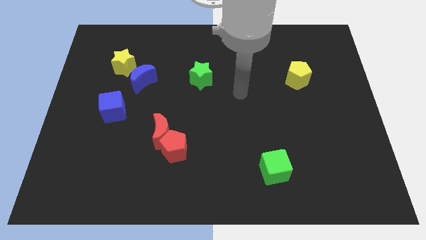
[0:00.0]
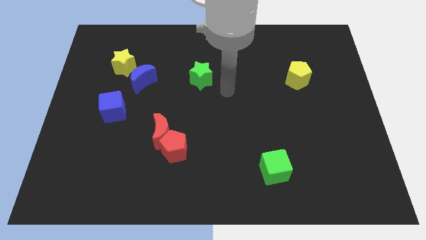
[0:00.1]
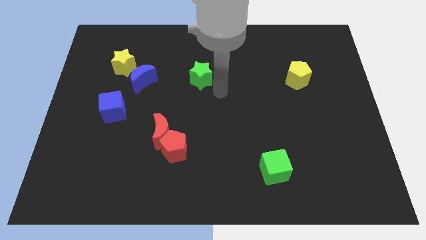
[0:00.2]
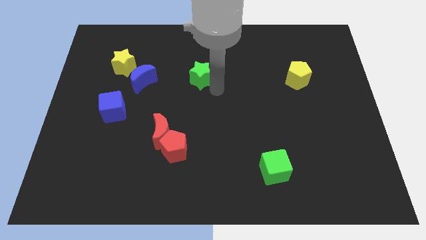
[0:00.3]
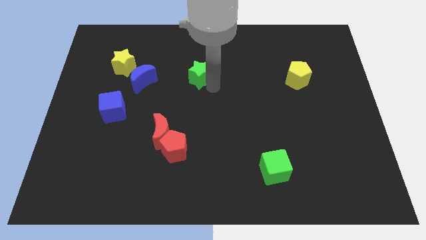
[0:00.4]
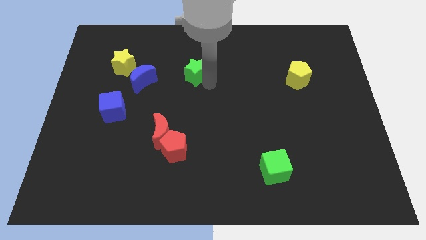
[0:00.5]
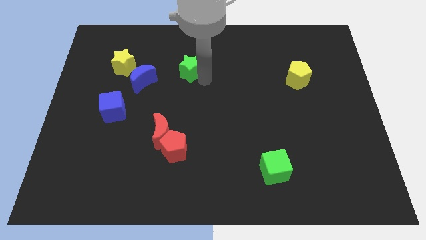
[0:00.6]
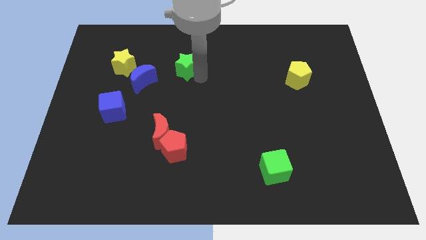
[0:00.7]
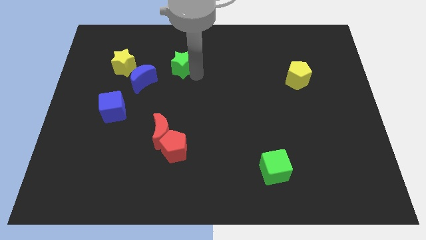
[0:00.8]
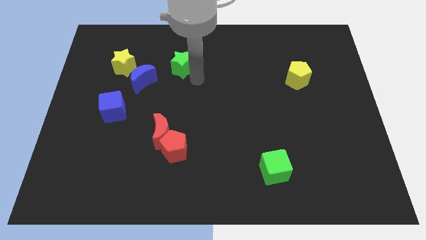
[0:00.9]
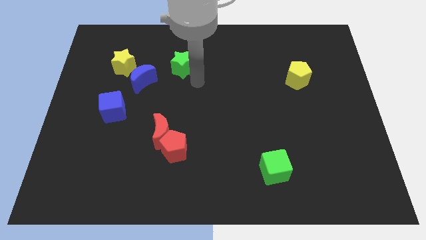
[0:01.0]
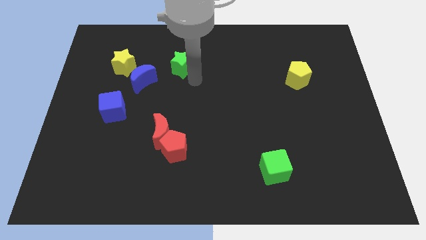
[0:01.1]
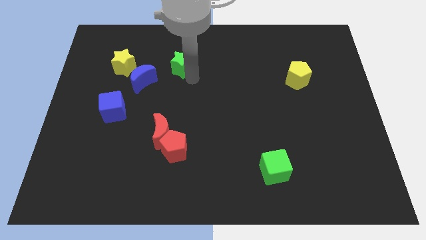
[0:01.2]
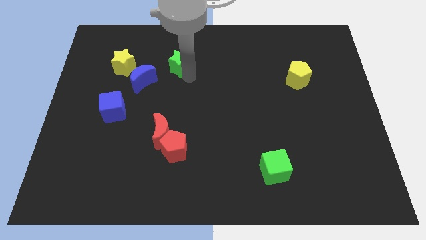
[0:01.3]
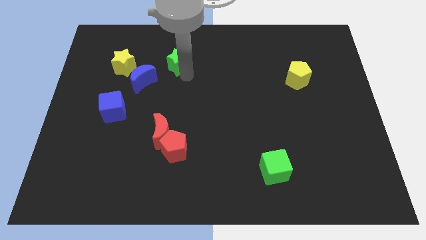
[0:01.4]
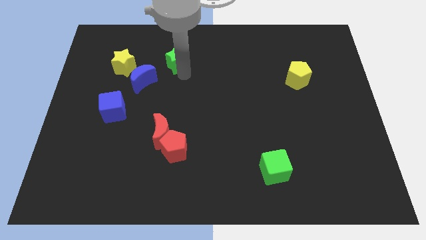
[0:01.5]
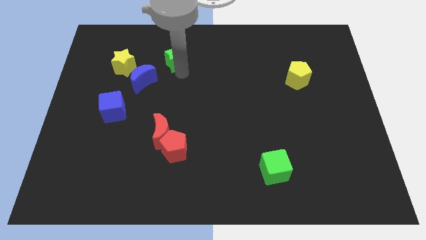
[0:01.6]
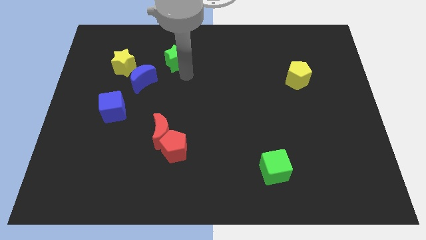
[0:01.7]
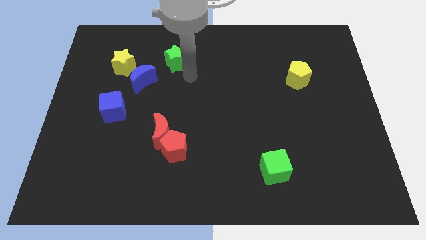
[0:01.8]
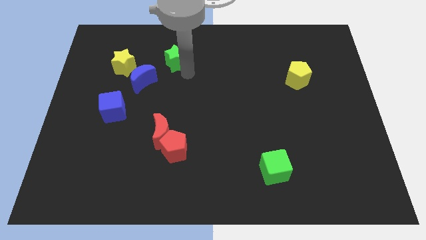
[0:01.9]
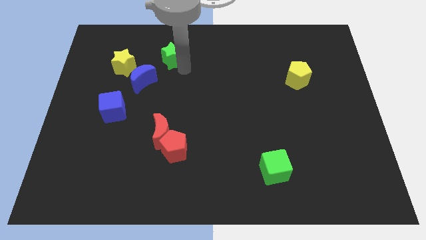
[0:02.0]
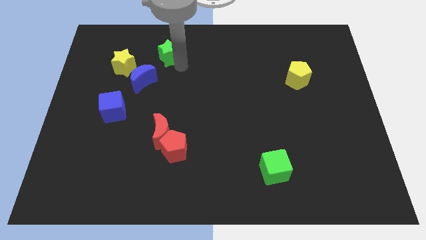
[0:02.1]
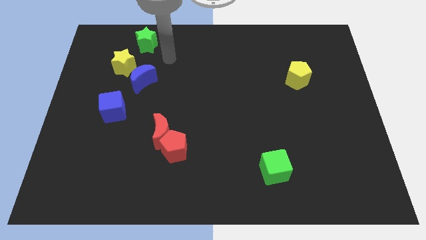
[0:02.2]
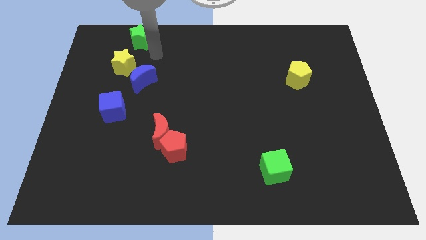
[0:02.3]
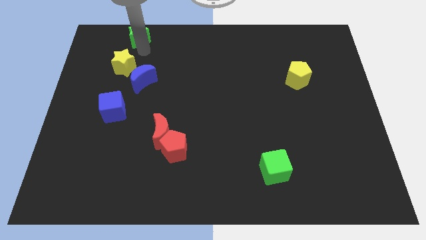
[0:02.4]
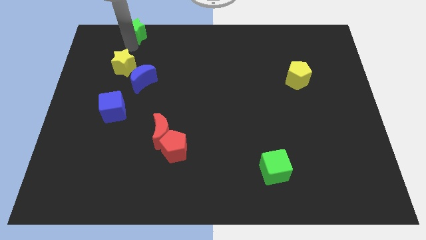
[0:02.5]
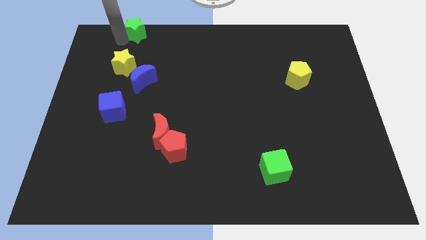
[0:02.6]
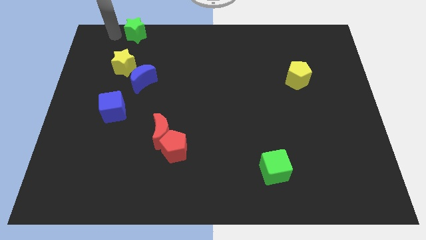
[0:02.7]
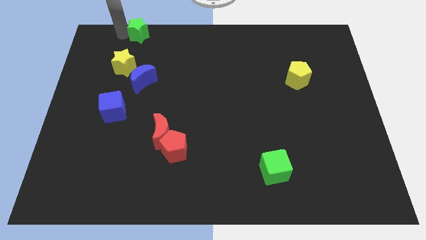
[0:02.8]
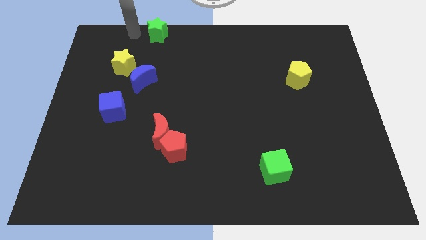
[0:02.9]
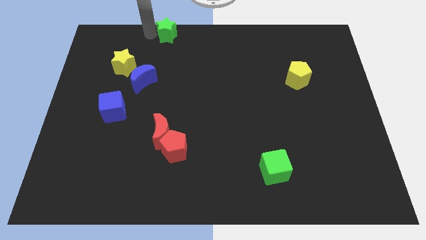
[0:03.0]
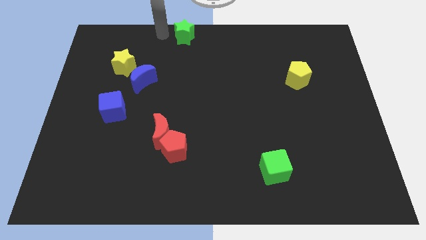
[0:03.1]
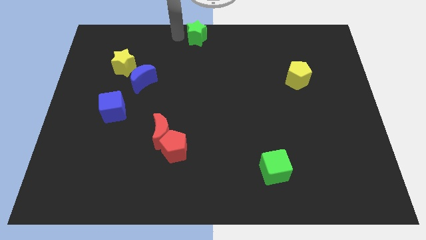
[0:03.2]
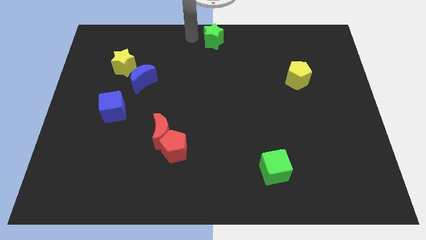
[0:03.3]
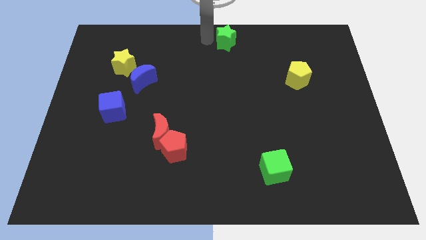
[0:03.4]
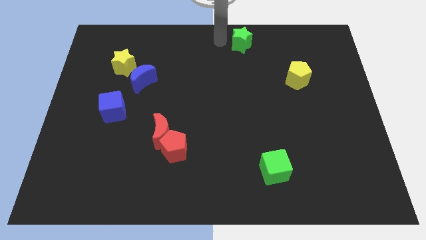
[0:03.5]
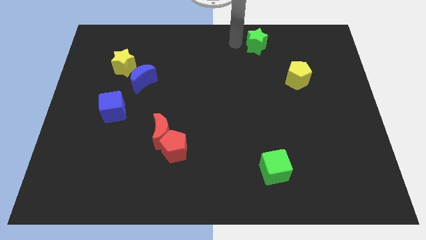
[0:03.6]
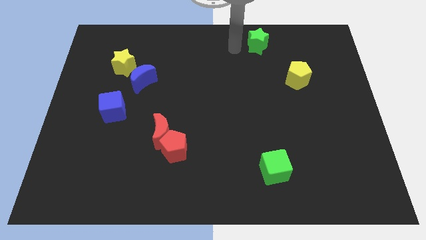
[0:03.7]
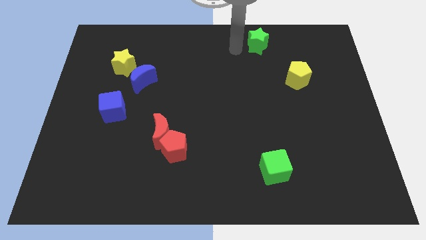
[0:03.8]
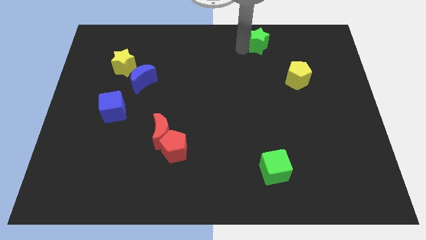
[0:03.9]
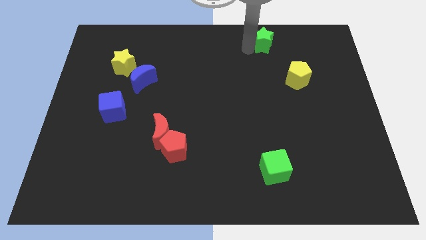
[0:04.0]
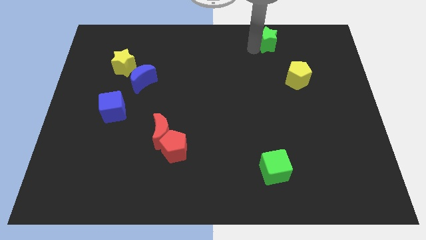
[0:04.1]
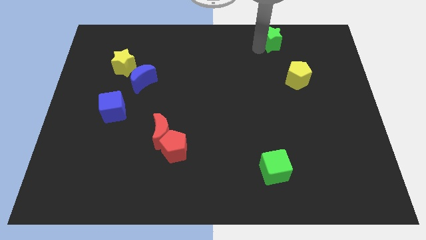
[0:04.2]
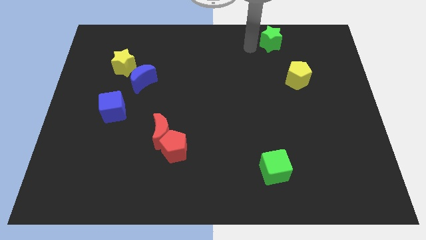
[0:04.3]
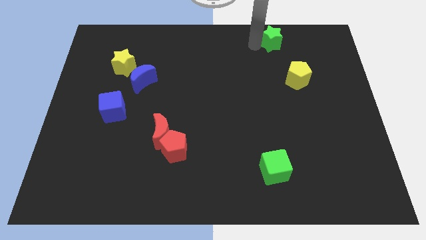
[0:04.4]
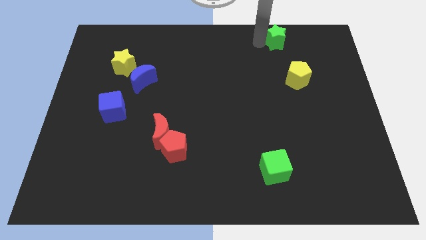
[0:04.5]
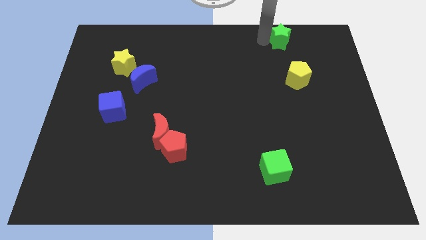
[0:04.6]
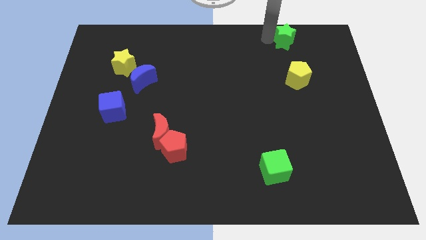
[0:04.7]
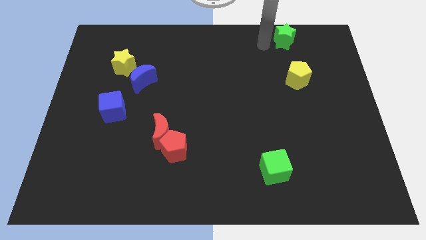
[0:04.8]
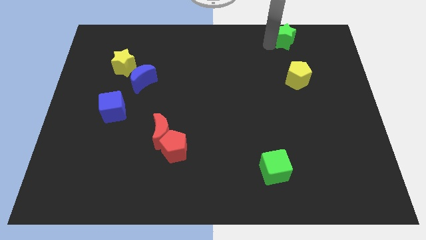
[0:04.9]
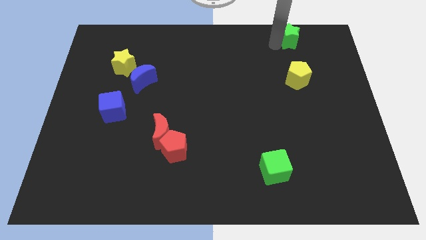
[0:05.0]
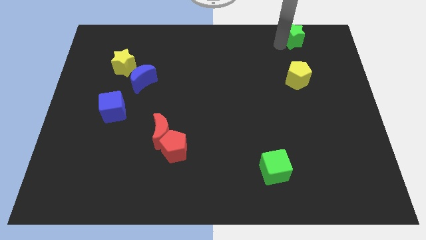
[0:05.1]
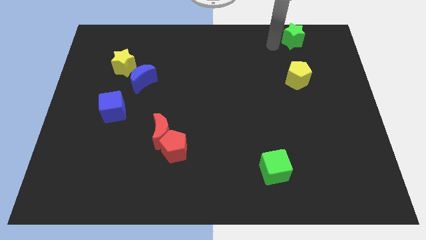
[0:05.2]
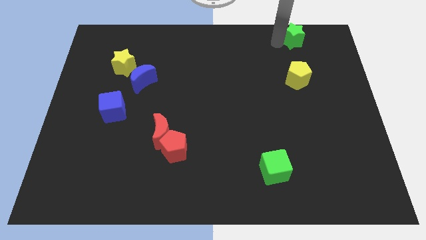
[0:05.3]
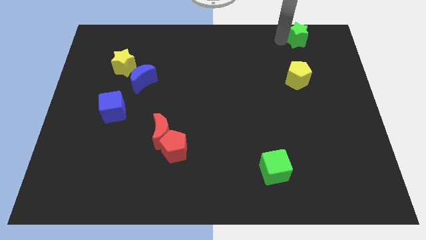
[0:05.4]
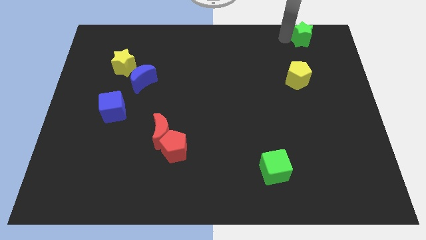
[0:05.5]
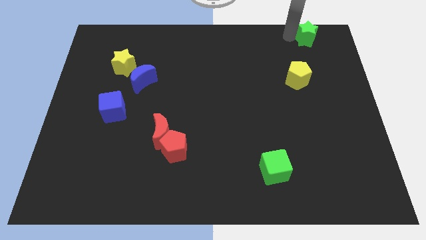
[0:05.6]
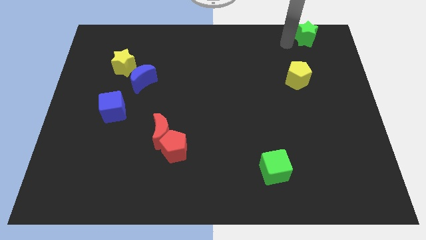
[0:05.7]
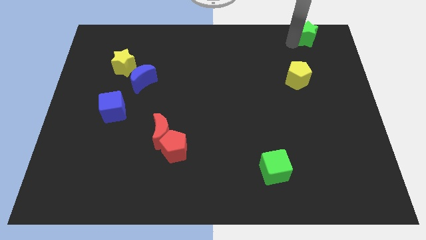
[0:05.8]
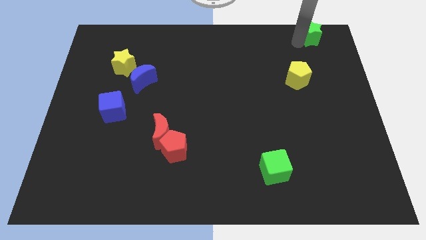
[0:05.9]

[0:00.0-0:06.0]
push the green star to the top right corner
